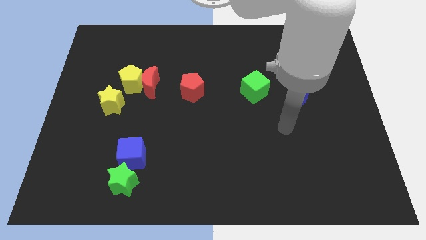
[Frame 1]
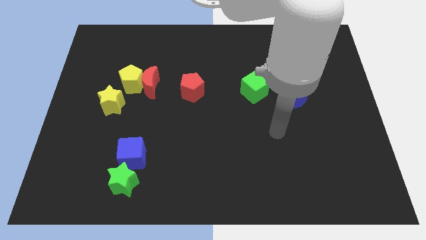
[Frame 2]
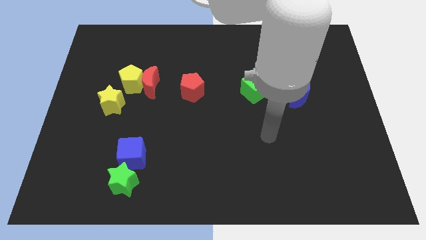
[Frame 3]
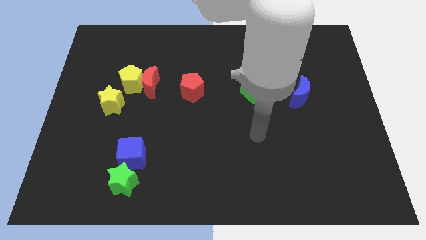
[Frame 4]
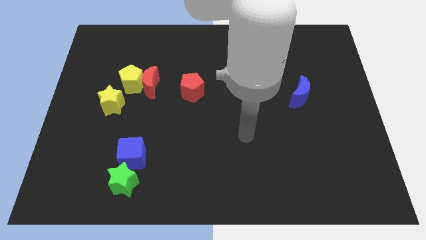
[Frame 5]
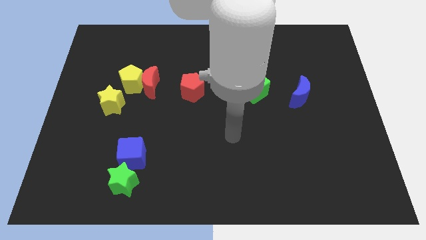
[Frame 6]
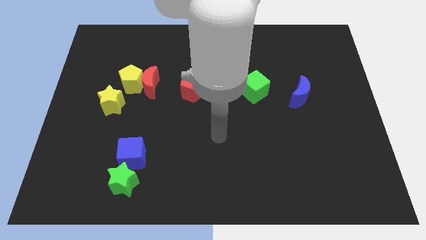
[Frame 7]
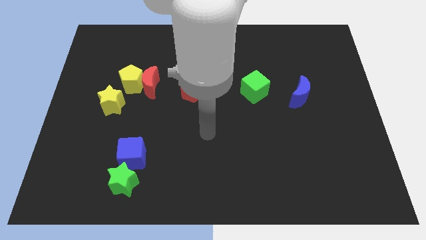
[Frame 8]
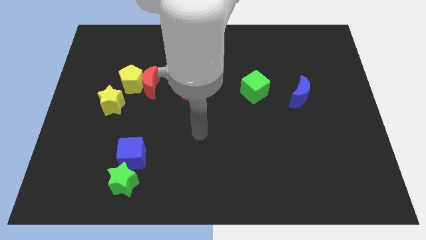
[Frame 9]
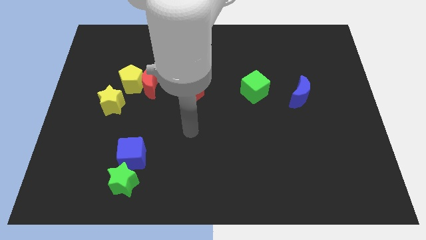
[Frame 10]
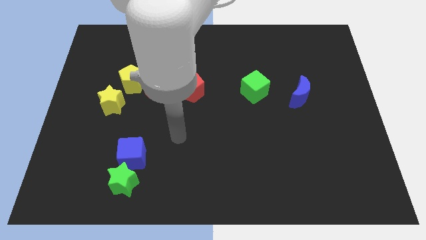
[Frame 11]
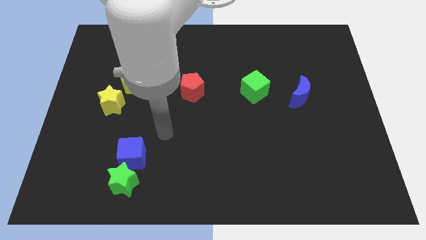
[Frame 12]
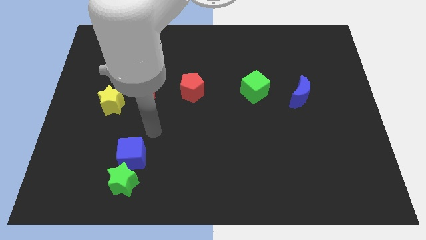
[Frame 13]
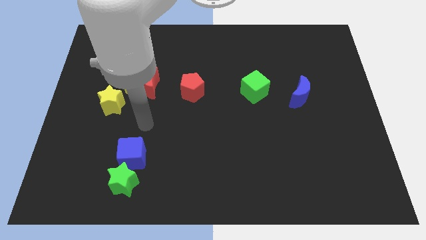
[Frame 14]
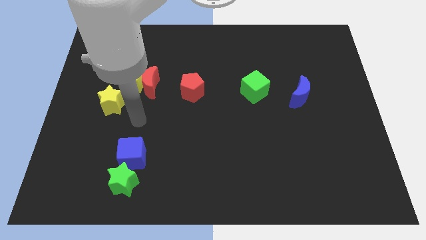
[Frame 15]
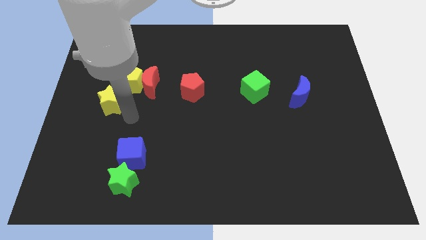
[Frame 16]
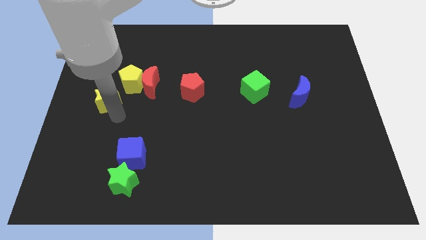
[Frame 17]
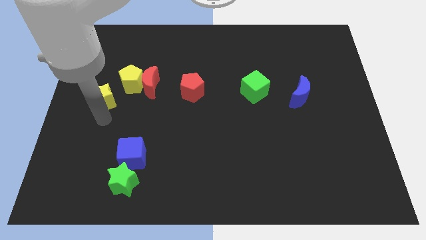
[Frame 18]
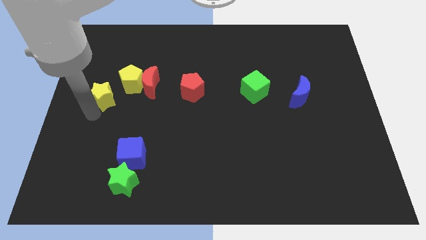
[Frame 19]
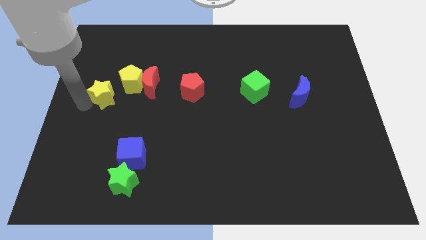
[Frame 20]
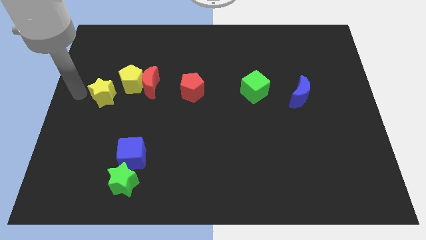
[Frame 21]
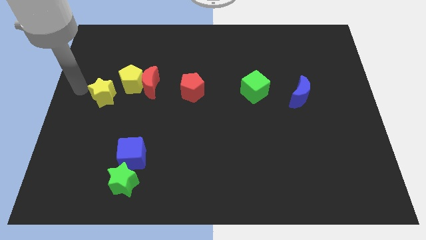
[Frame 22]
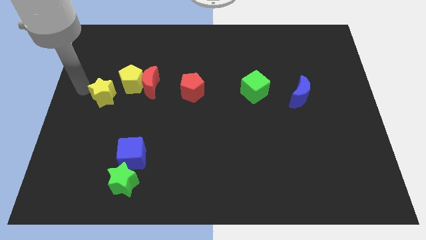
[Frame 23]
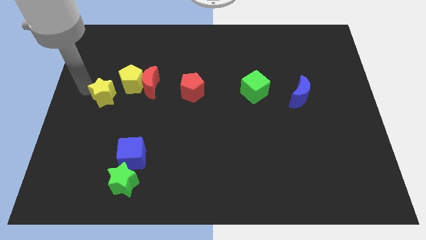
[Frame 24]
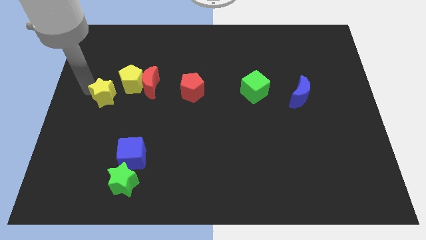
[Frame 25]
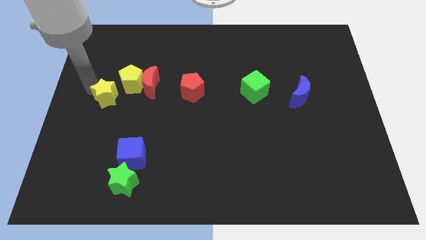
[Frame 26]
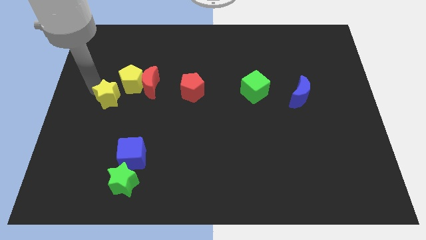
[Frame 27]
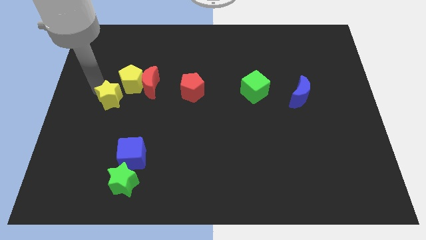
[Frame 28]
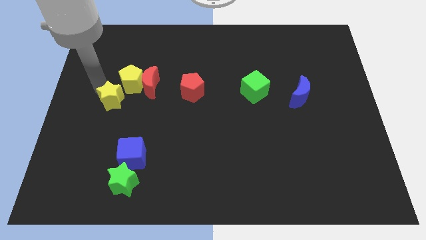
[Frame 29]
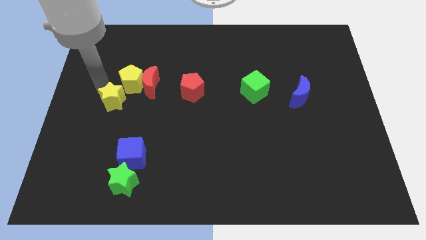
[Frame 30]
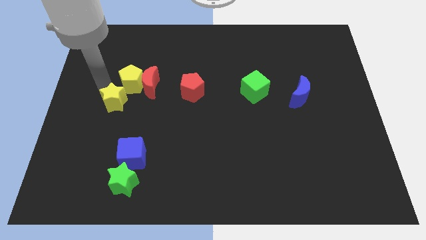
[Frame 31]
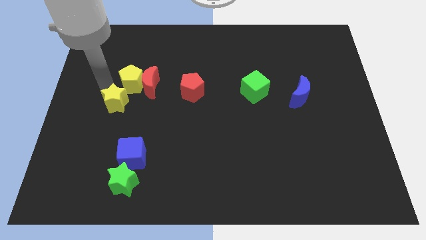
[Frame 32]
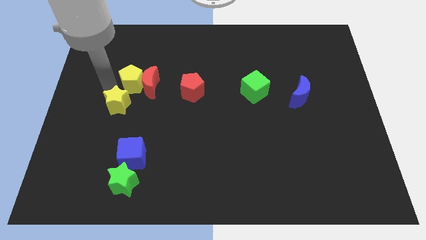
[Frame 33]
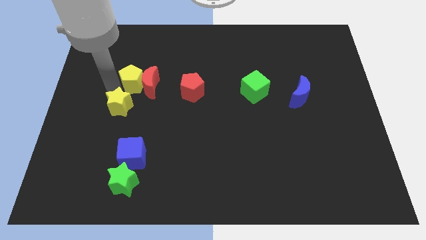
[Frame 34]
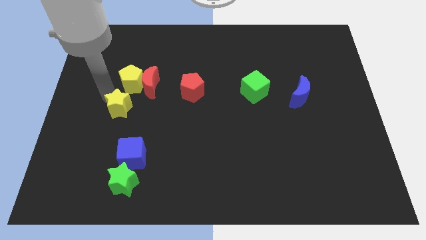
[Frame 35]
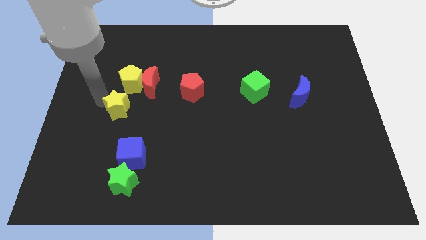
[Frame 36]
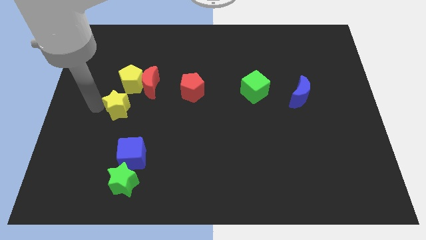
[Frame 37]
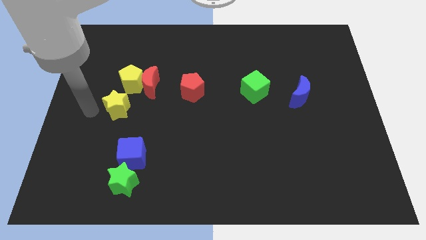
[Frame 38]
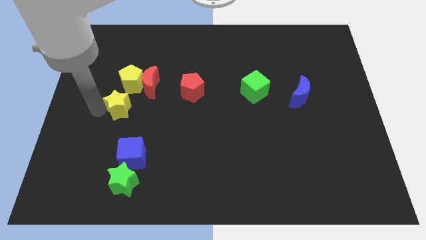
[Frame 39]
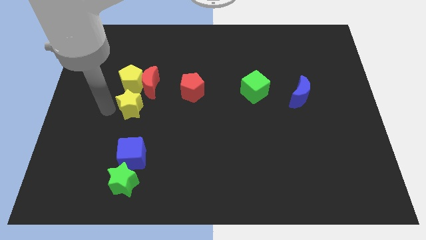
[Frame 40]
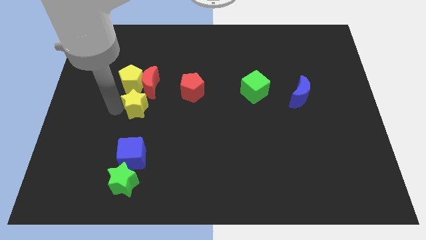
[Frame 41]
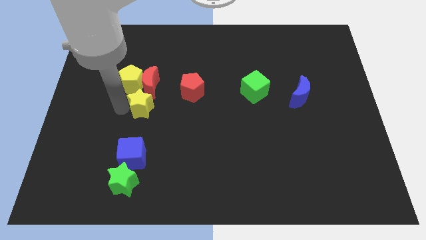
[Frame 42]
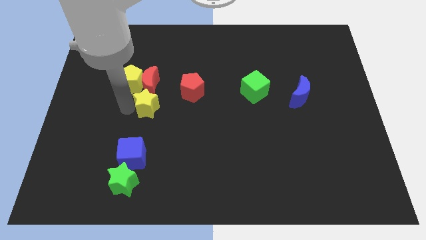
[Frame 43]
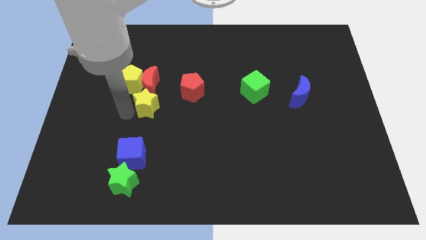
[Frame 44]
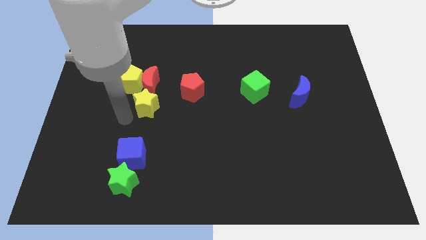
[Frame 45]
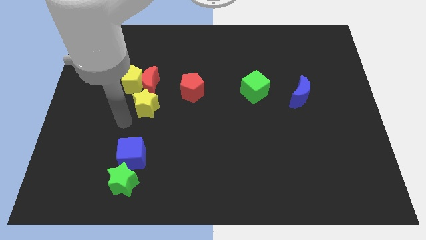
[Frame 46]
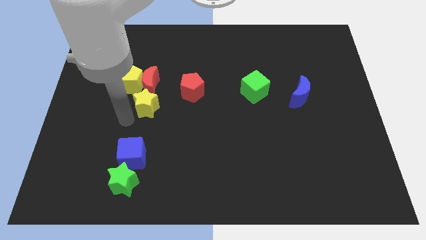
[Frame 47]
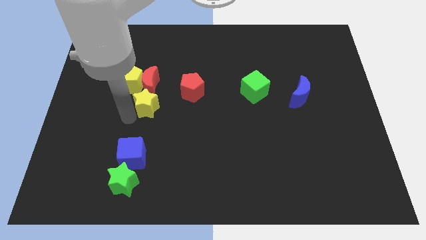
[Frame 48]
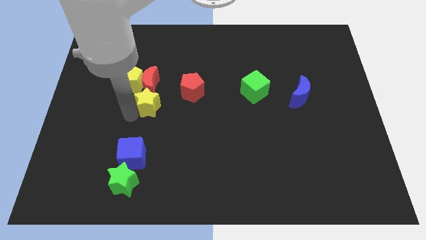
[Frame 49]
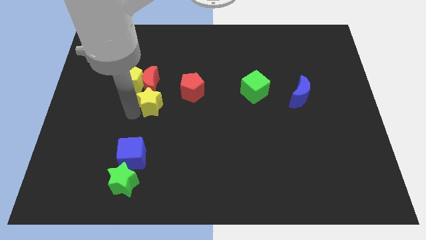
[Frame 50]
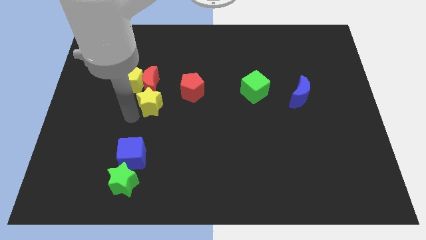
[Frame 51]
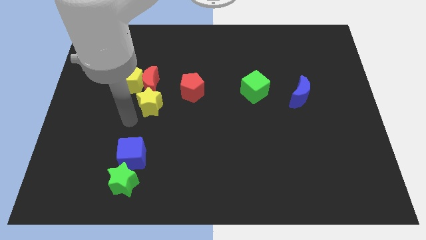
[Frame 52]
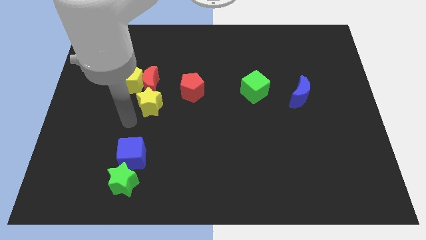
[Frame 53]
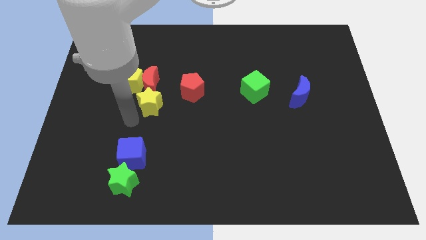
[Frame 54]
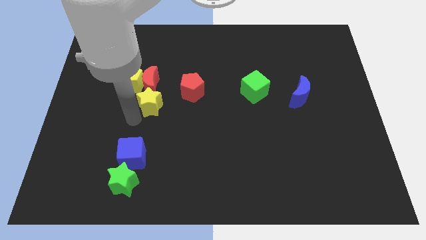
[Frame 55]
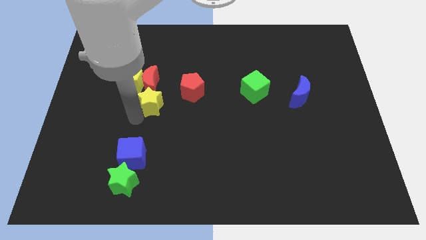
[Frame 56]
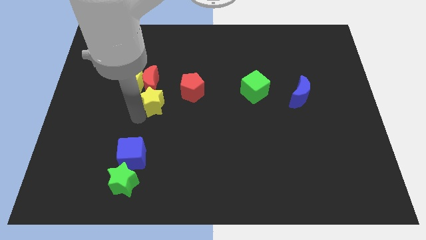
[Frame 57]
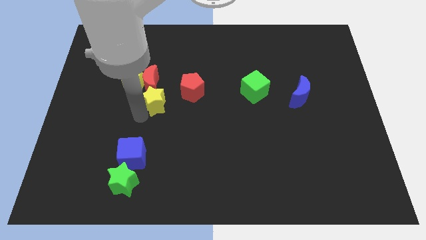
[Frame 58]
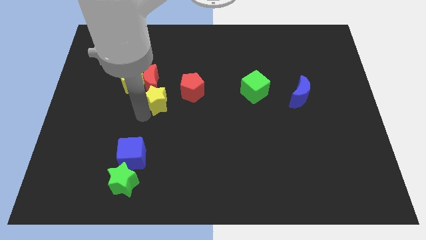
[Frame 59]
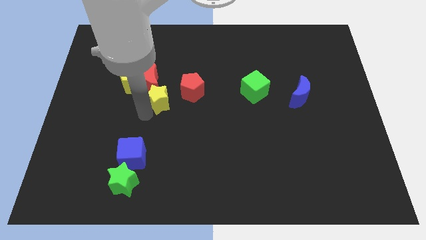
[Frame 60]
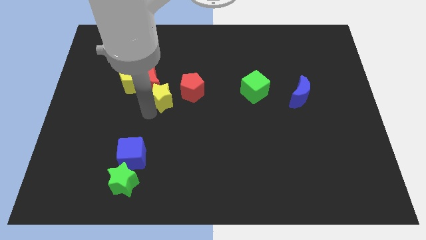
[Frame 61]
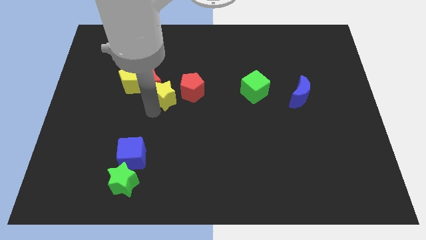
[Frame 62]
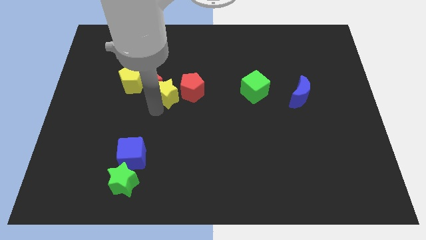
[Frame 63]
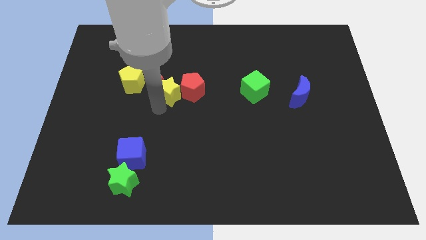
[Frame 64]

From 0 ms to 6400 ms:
push the yellow star to the top left side of the red pentagon

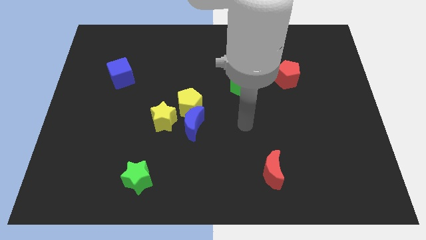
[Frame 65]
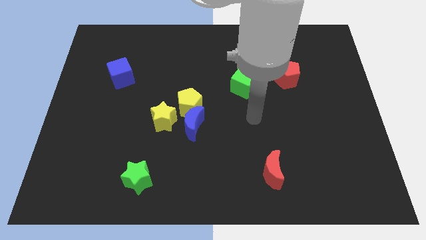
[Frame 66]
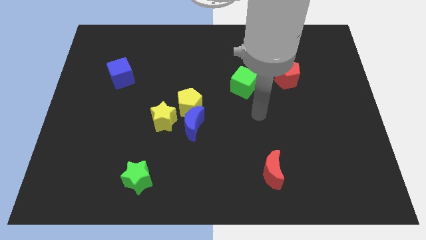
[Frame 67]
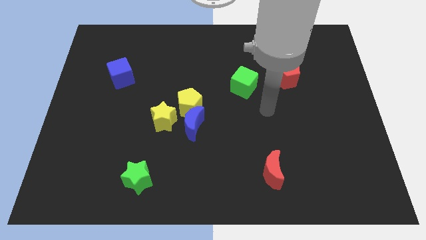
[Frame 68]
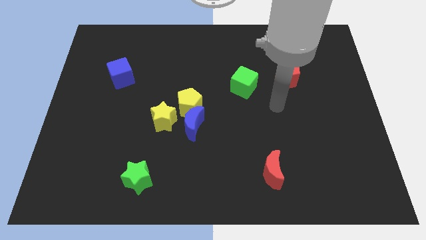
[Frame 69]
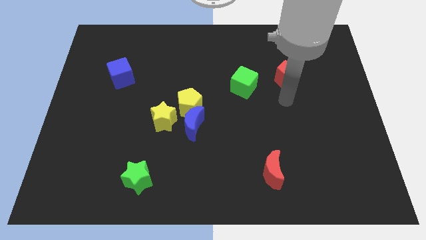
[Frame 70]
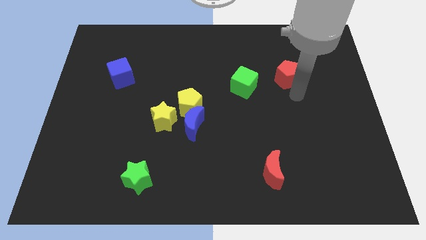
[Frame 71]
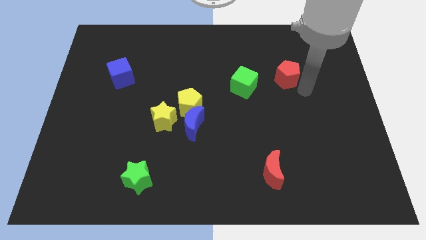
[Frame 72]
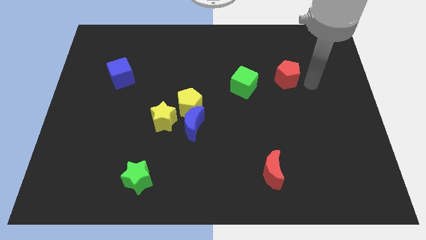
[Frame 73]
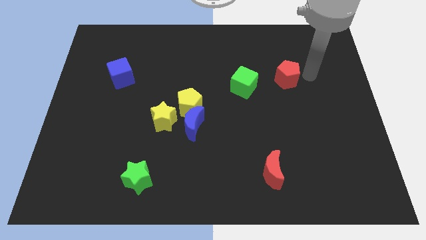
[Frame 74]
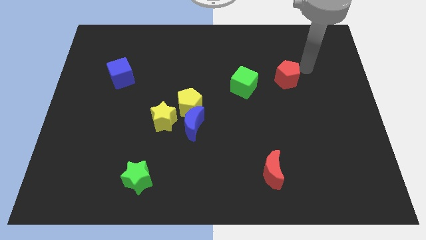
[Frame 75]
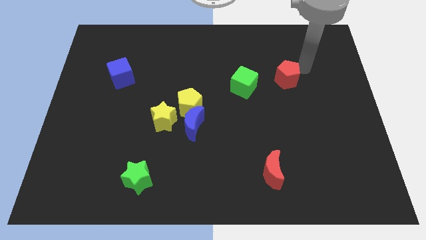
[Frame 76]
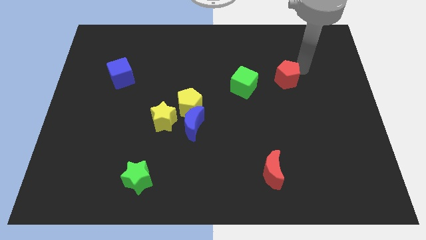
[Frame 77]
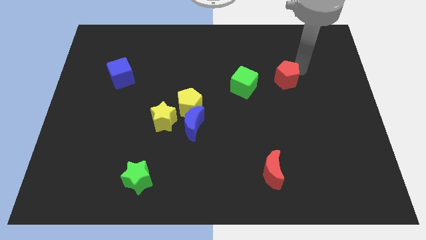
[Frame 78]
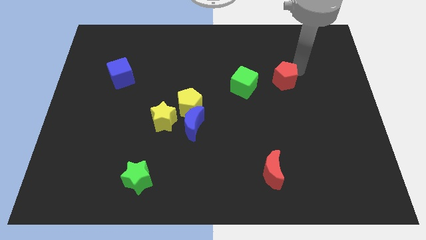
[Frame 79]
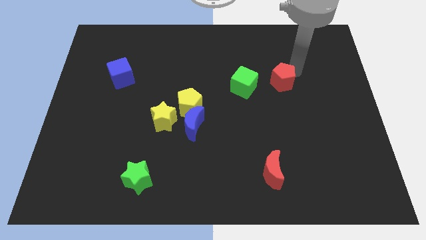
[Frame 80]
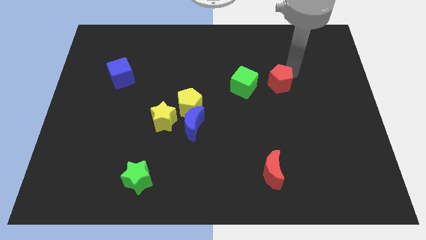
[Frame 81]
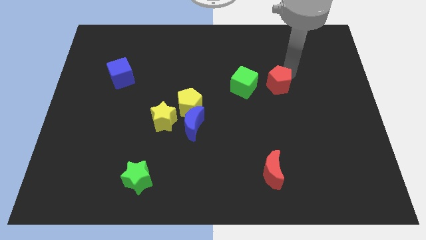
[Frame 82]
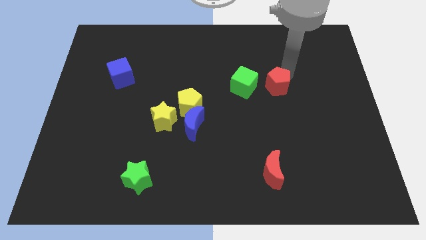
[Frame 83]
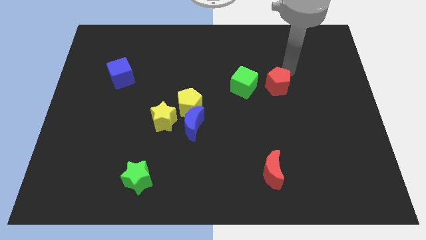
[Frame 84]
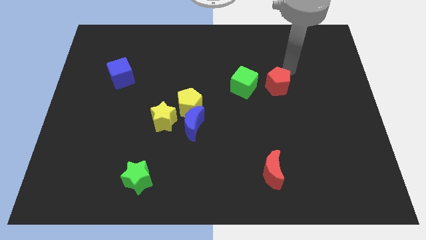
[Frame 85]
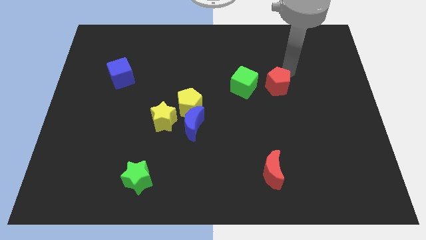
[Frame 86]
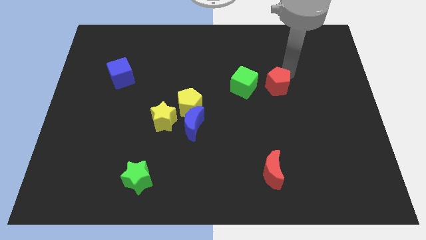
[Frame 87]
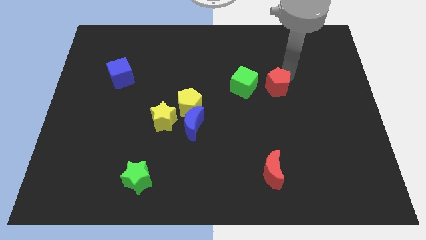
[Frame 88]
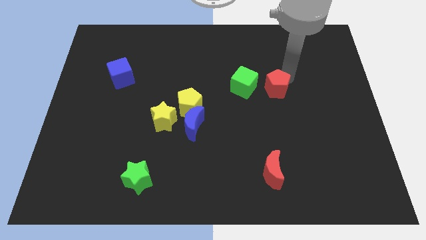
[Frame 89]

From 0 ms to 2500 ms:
put the red pentagon diagonally down and to the right of the green cube
